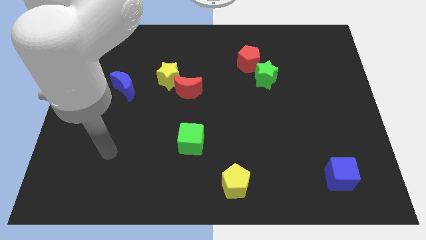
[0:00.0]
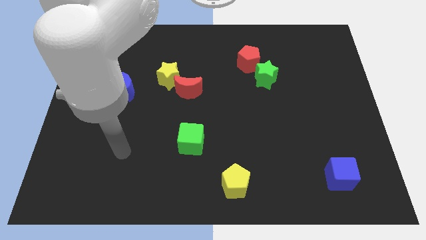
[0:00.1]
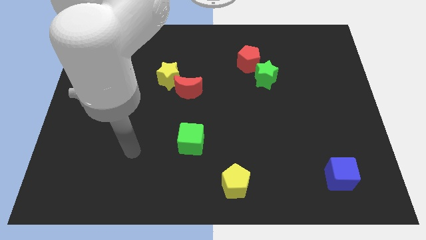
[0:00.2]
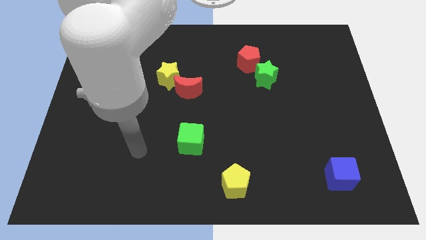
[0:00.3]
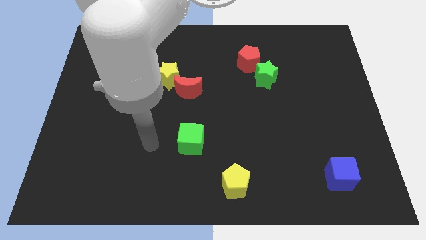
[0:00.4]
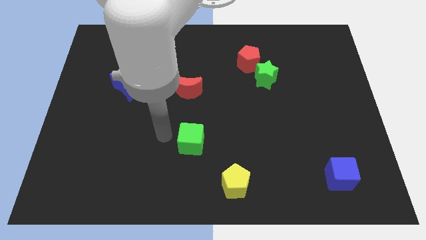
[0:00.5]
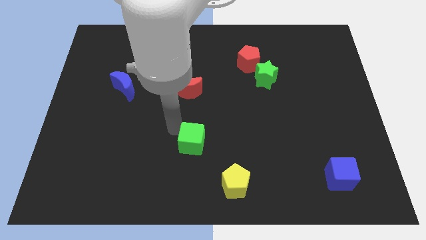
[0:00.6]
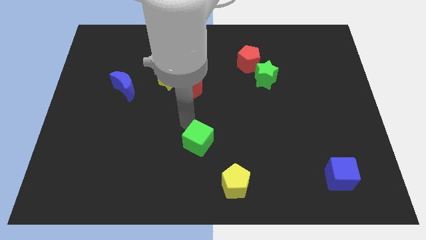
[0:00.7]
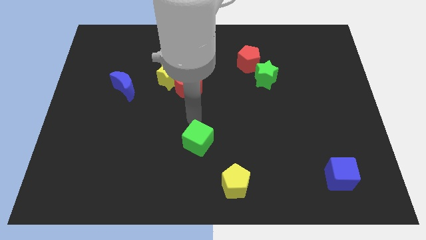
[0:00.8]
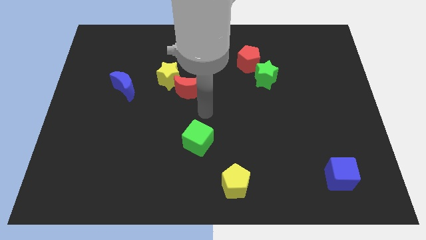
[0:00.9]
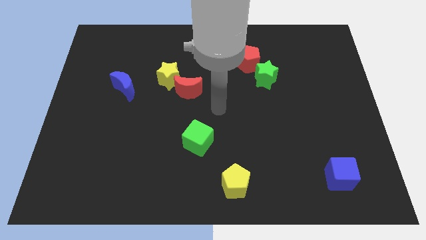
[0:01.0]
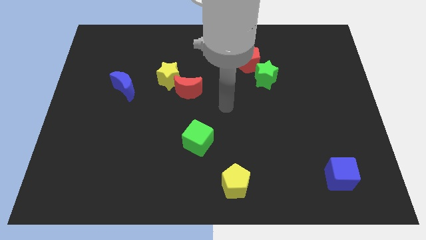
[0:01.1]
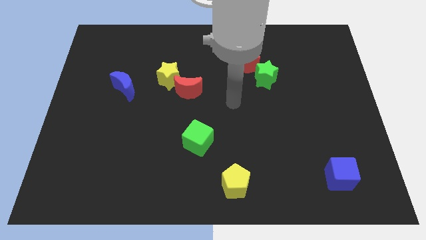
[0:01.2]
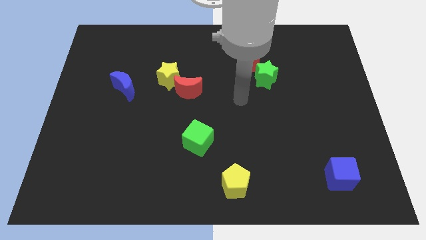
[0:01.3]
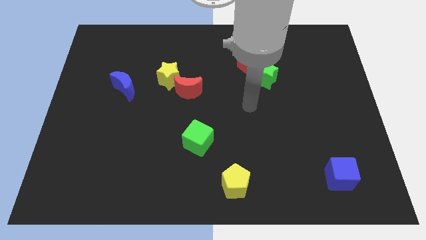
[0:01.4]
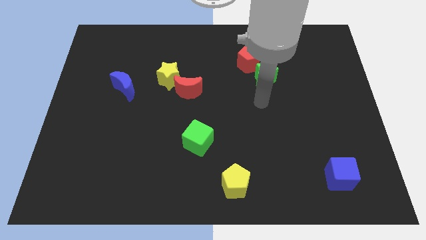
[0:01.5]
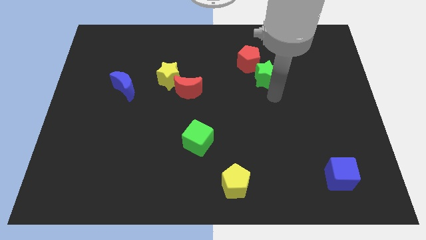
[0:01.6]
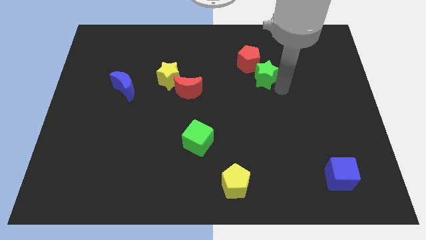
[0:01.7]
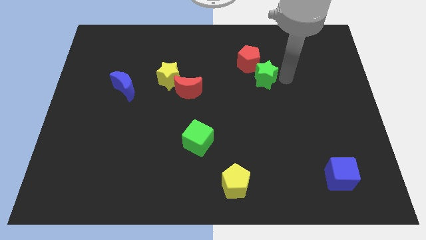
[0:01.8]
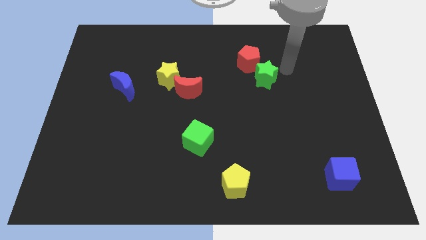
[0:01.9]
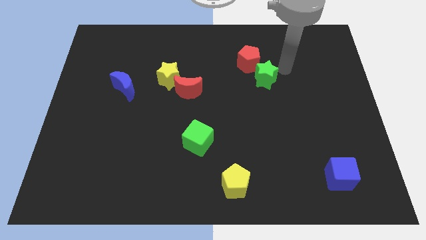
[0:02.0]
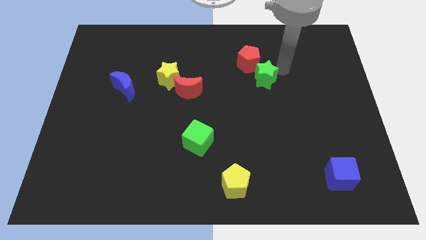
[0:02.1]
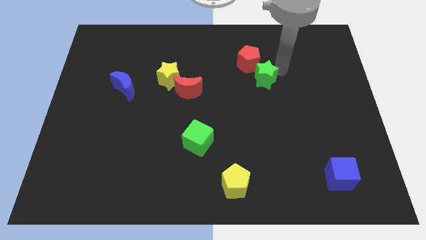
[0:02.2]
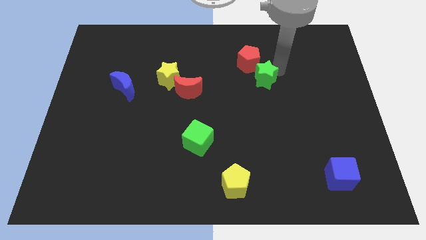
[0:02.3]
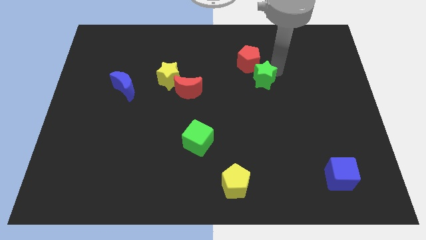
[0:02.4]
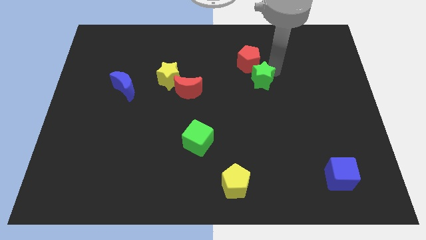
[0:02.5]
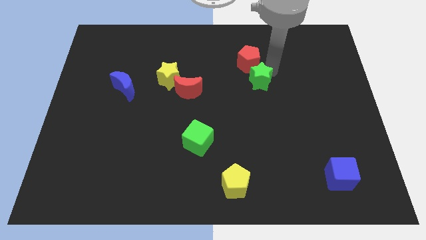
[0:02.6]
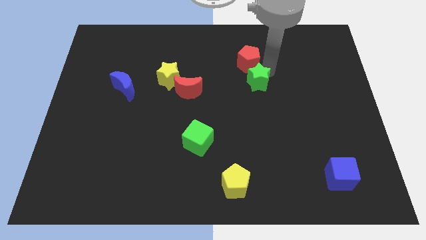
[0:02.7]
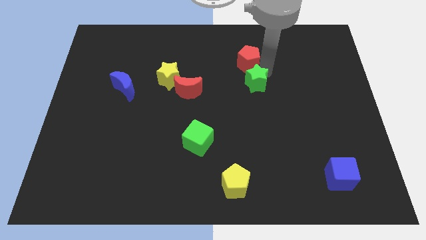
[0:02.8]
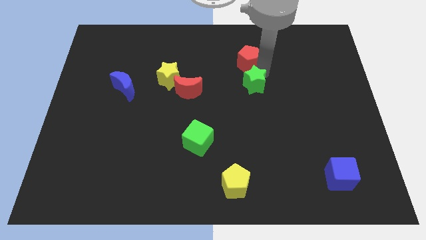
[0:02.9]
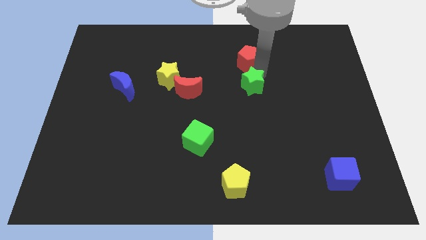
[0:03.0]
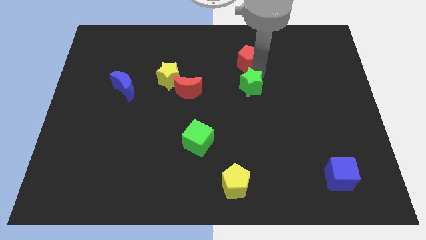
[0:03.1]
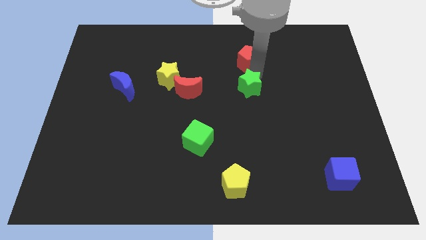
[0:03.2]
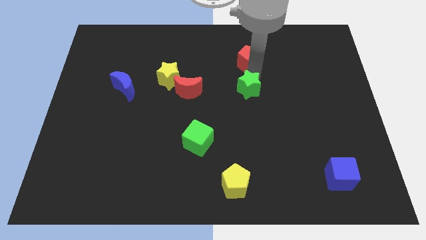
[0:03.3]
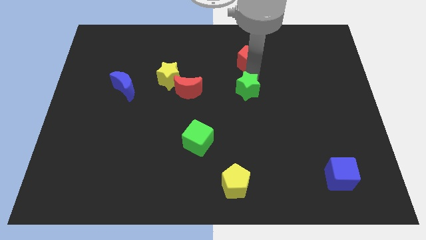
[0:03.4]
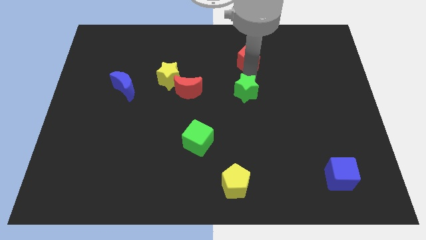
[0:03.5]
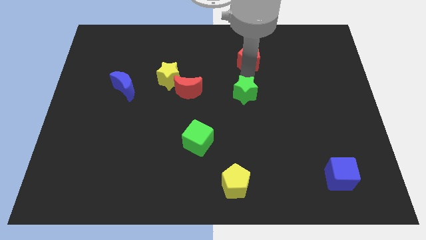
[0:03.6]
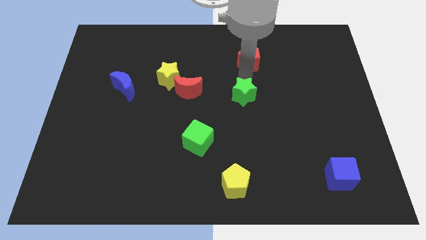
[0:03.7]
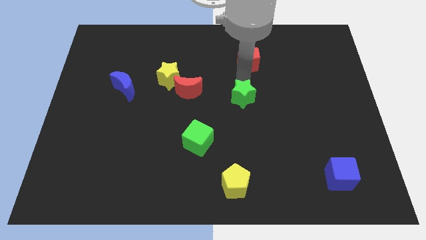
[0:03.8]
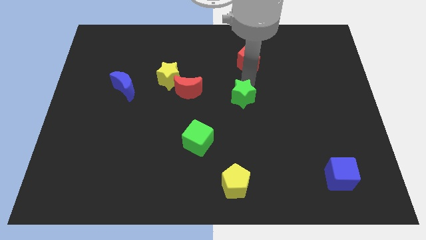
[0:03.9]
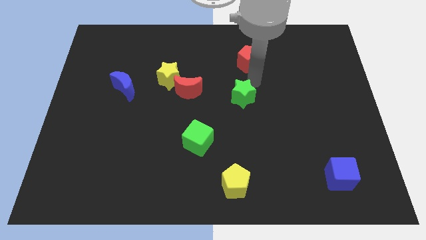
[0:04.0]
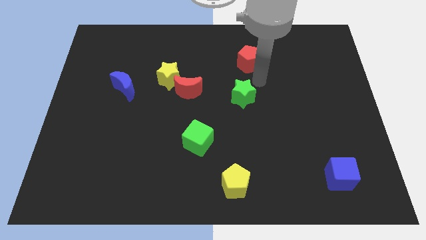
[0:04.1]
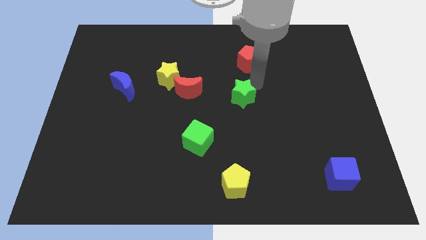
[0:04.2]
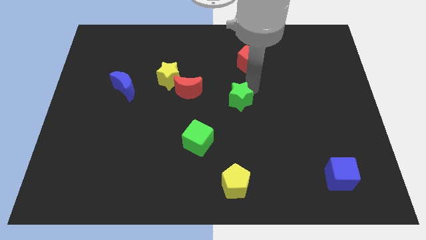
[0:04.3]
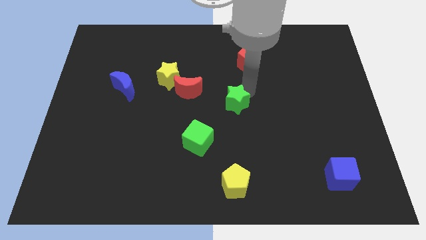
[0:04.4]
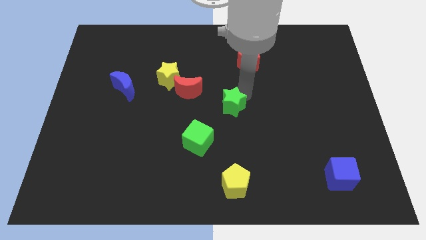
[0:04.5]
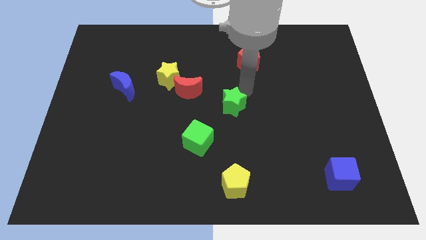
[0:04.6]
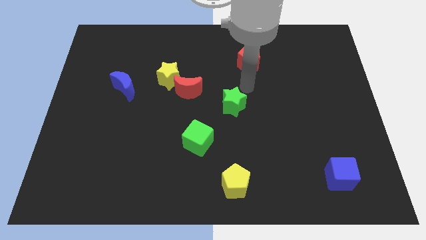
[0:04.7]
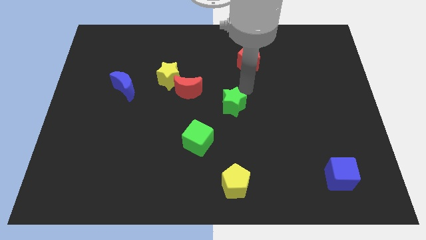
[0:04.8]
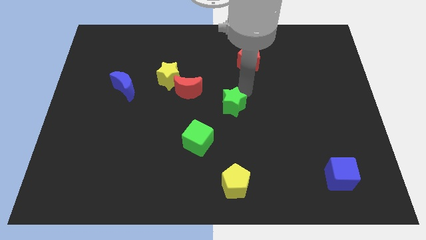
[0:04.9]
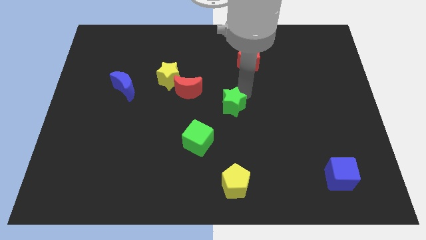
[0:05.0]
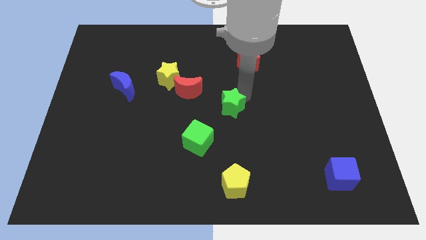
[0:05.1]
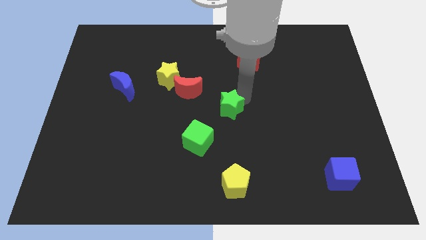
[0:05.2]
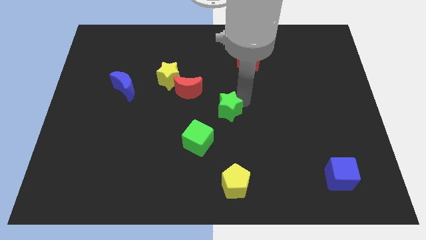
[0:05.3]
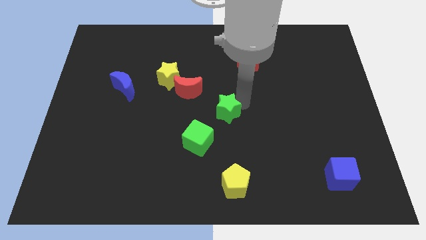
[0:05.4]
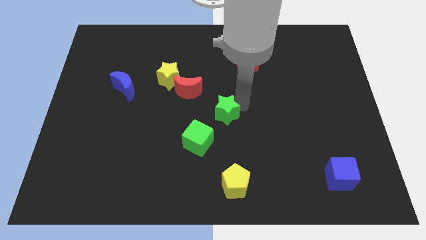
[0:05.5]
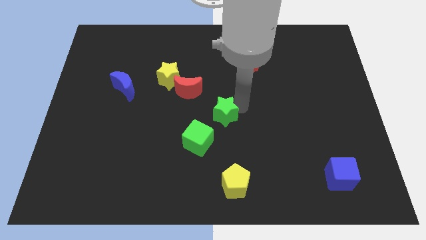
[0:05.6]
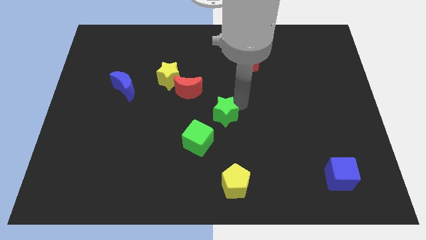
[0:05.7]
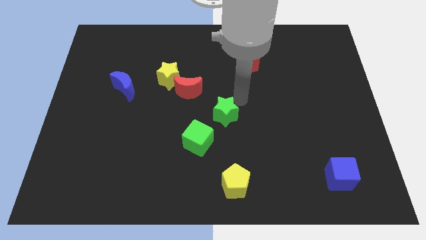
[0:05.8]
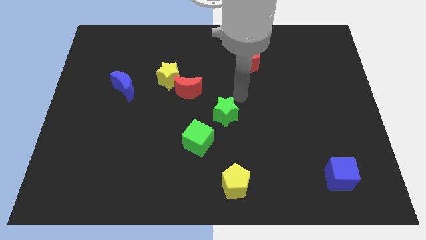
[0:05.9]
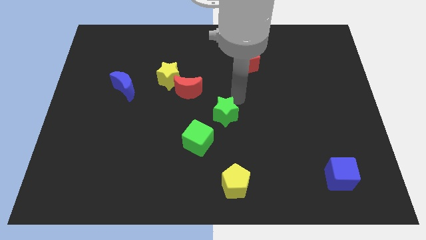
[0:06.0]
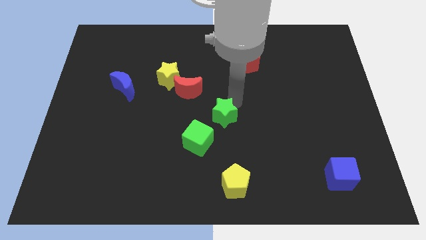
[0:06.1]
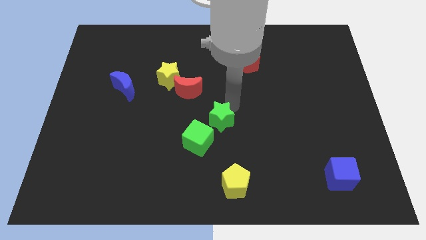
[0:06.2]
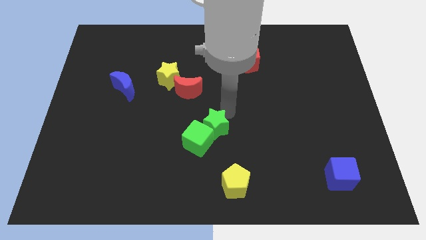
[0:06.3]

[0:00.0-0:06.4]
push the green star close to the green cube

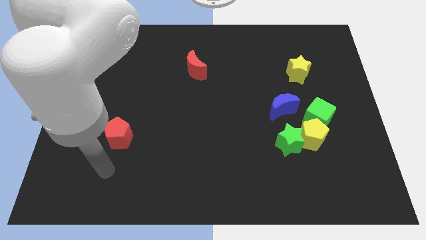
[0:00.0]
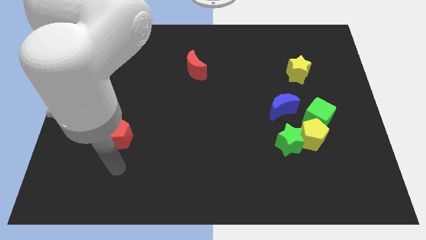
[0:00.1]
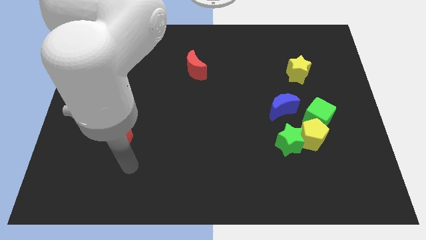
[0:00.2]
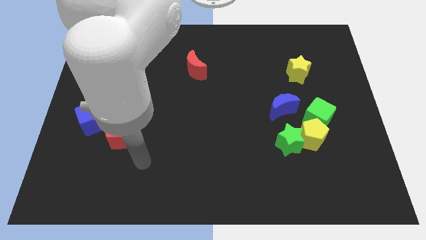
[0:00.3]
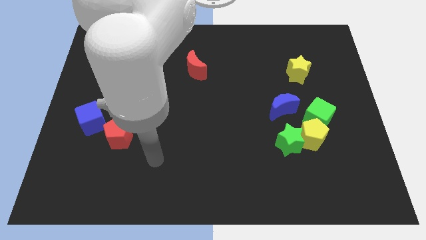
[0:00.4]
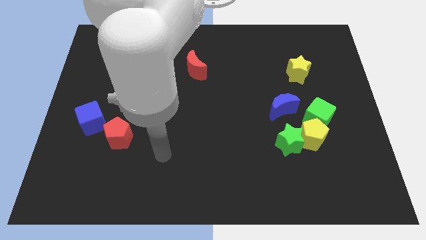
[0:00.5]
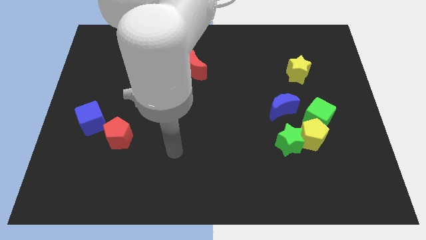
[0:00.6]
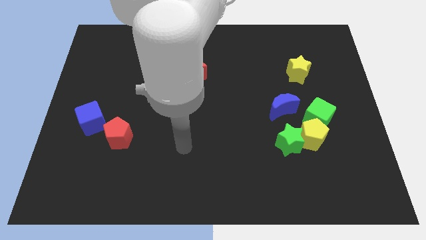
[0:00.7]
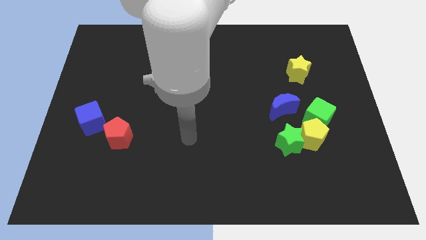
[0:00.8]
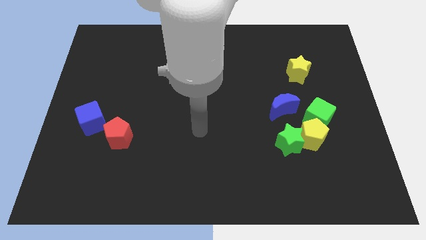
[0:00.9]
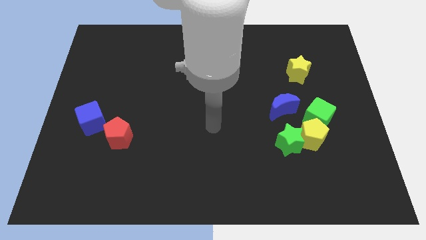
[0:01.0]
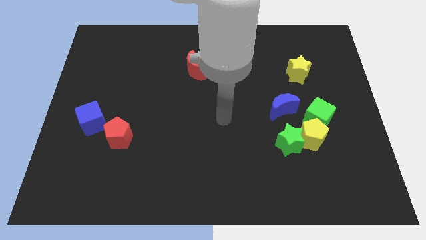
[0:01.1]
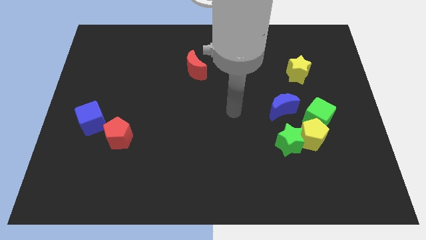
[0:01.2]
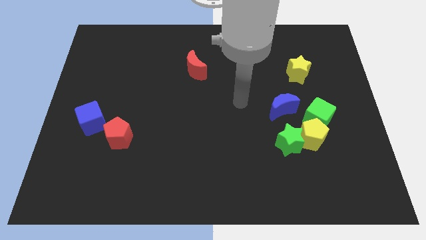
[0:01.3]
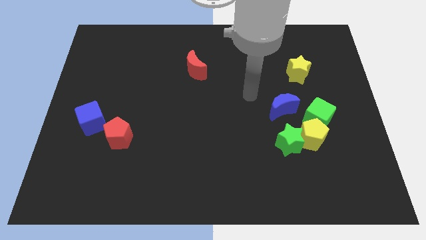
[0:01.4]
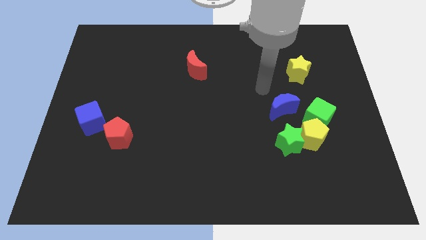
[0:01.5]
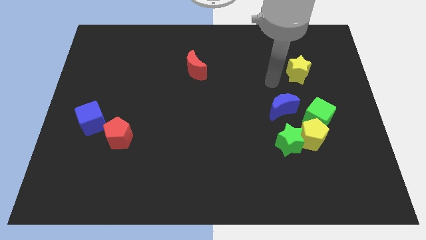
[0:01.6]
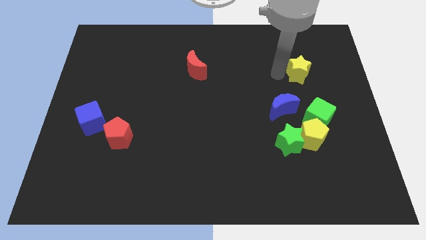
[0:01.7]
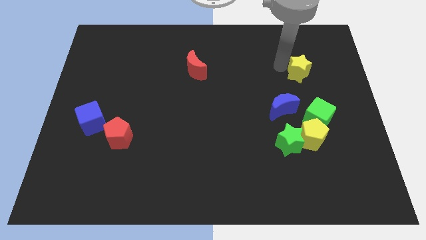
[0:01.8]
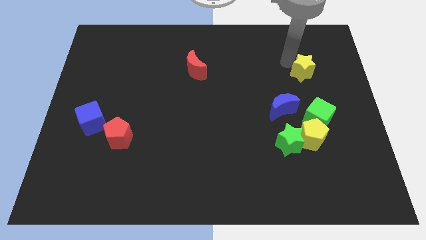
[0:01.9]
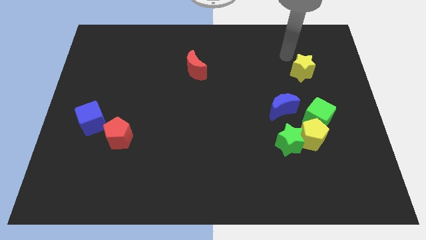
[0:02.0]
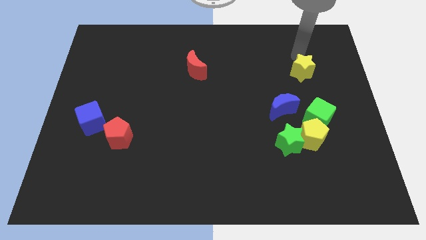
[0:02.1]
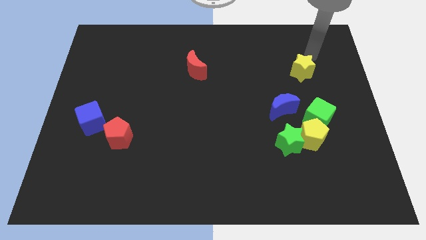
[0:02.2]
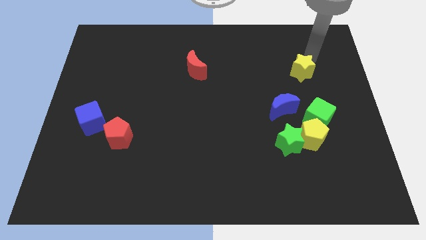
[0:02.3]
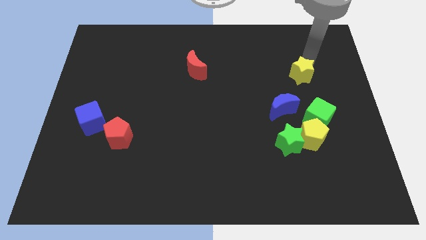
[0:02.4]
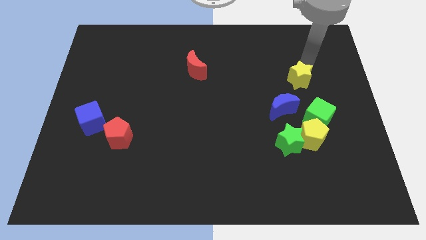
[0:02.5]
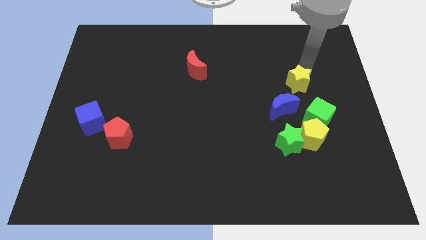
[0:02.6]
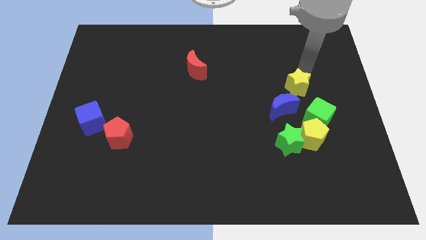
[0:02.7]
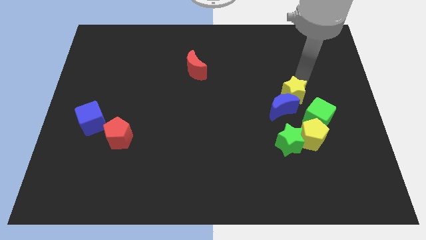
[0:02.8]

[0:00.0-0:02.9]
move the yellow star next to the blue moon
